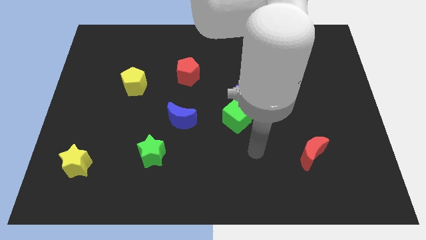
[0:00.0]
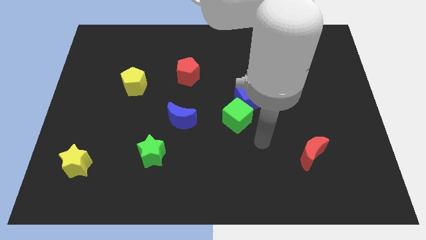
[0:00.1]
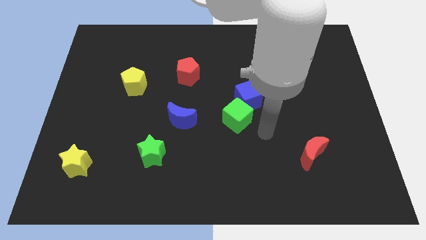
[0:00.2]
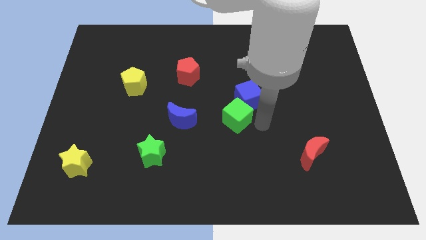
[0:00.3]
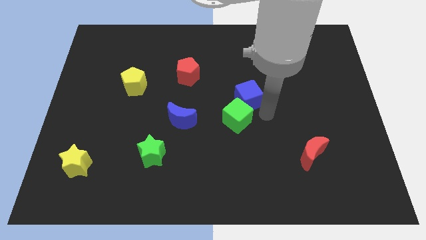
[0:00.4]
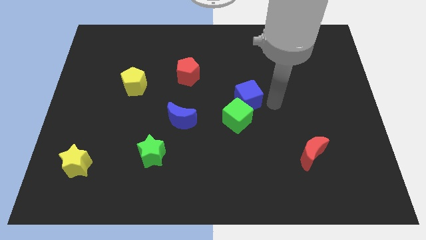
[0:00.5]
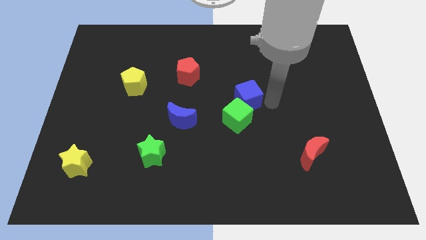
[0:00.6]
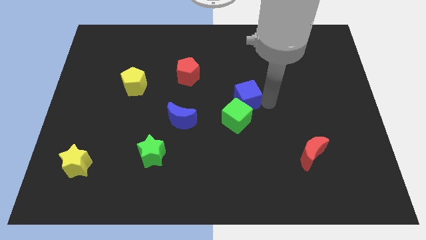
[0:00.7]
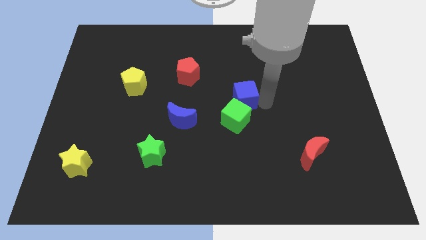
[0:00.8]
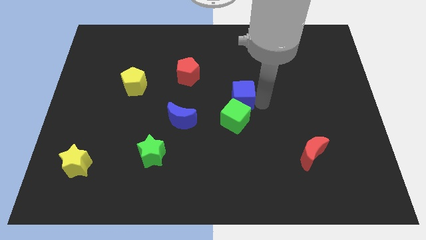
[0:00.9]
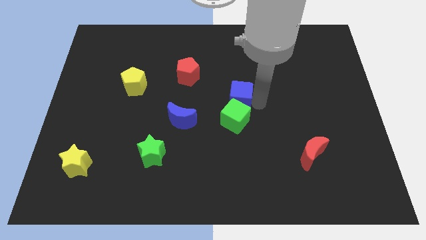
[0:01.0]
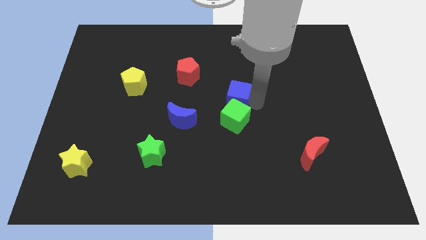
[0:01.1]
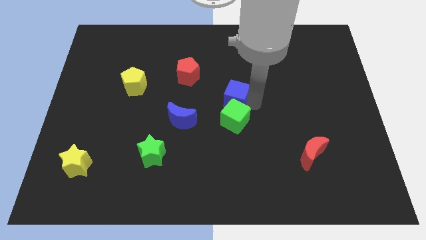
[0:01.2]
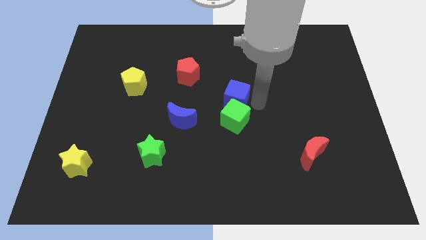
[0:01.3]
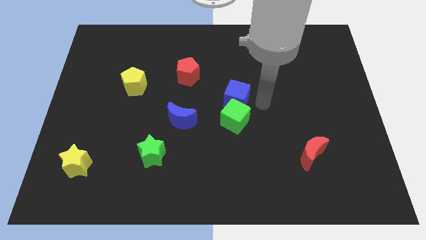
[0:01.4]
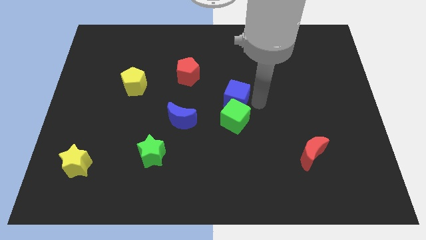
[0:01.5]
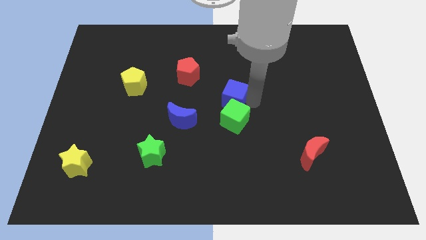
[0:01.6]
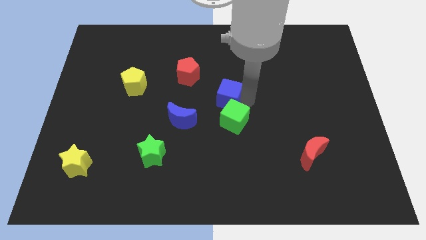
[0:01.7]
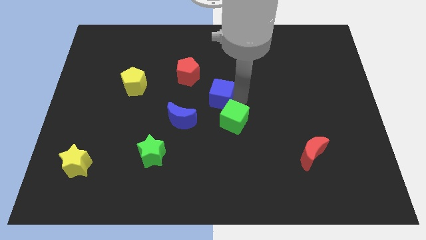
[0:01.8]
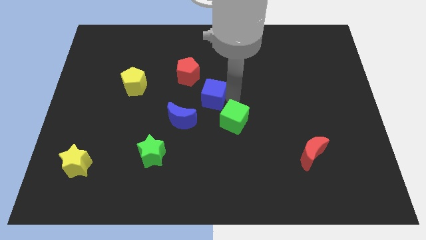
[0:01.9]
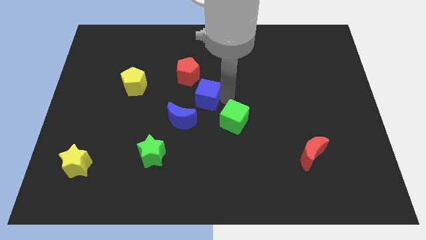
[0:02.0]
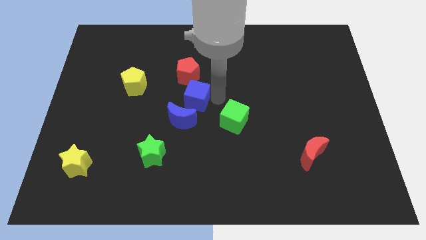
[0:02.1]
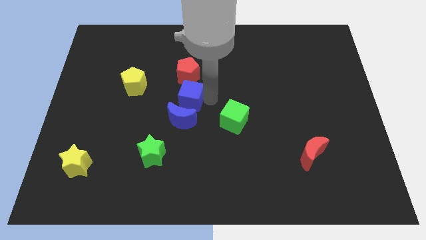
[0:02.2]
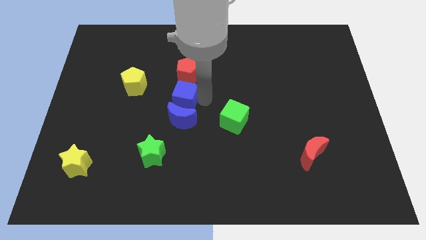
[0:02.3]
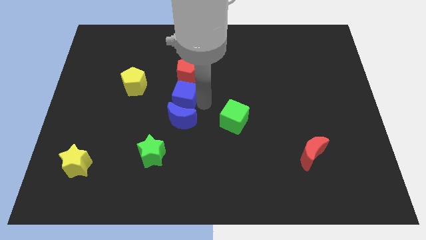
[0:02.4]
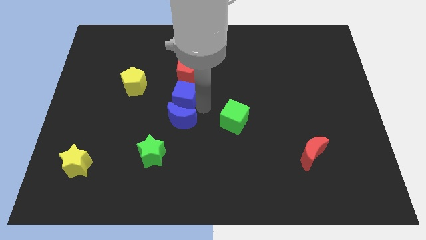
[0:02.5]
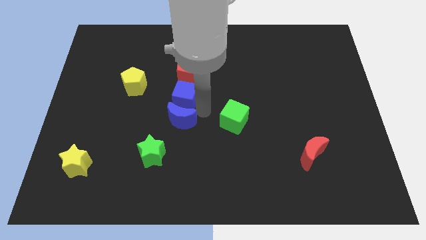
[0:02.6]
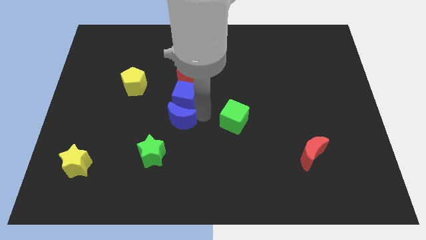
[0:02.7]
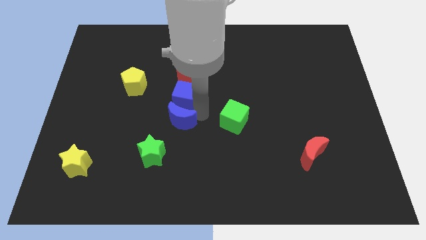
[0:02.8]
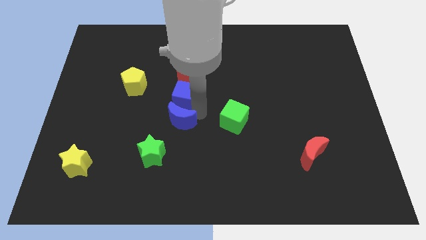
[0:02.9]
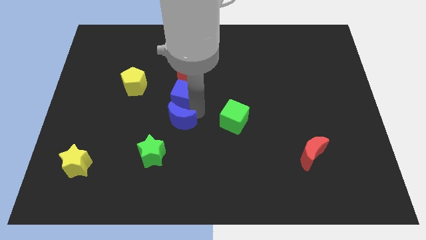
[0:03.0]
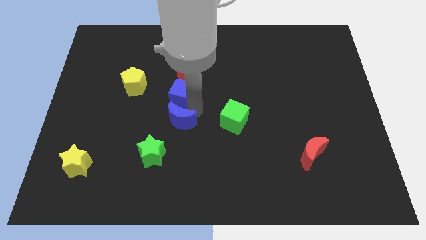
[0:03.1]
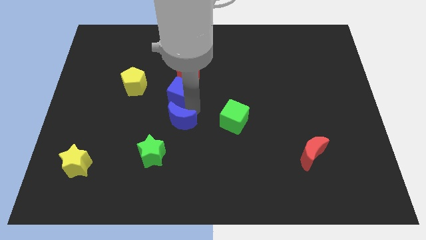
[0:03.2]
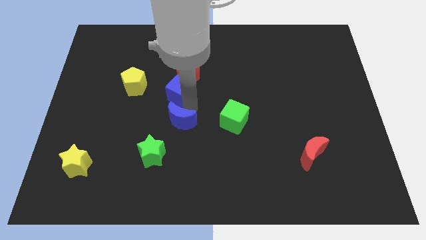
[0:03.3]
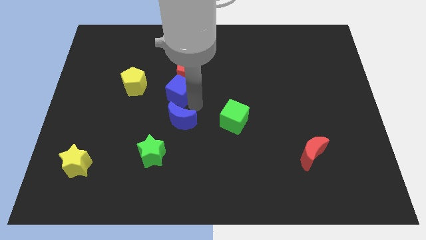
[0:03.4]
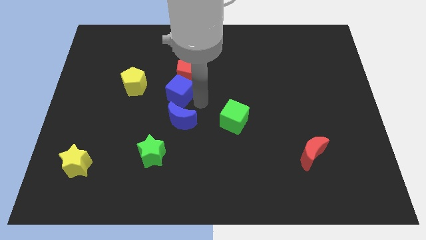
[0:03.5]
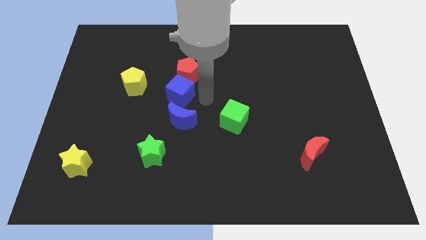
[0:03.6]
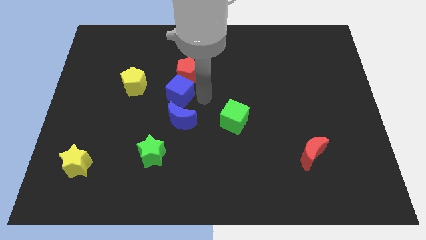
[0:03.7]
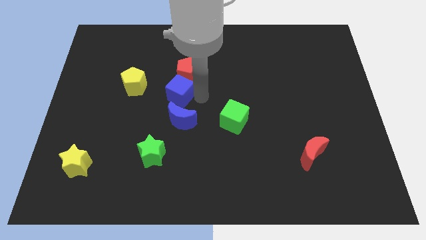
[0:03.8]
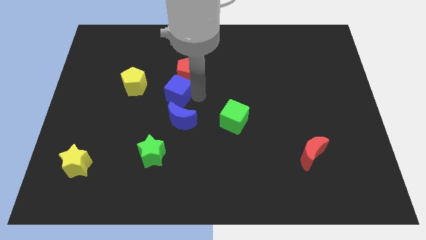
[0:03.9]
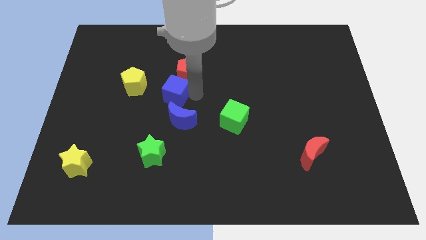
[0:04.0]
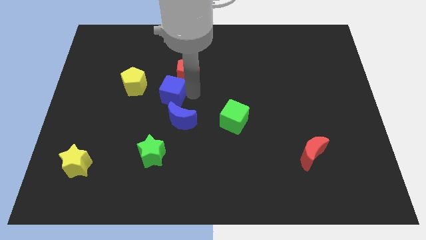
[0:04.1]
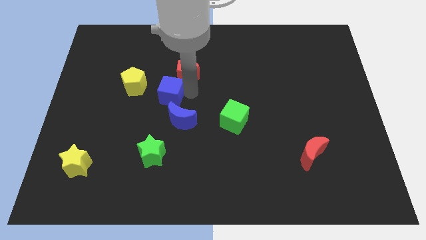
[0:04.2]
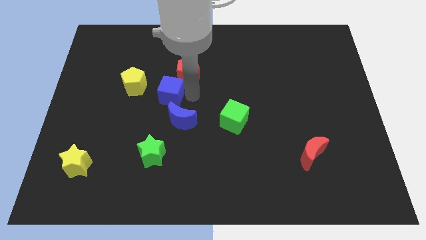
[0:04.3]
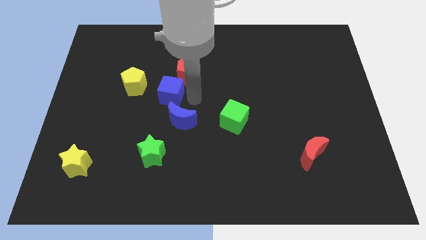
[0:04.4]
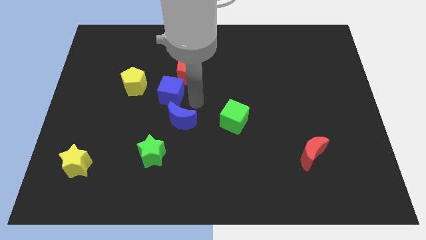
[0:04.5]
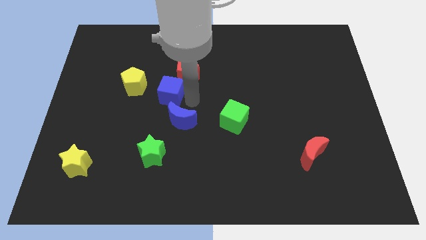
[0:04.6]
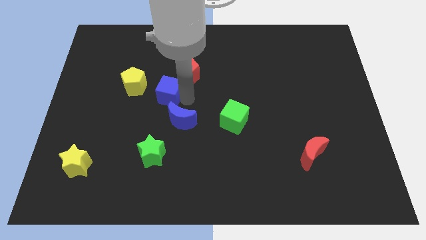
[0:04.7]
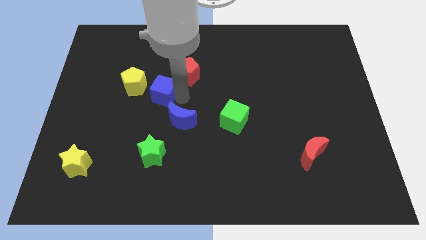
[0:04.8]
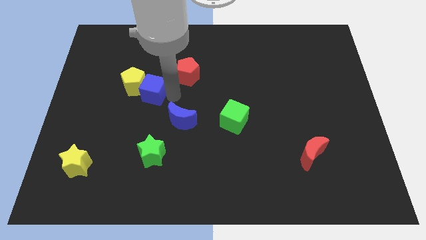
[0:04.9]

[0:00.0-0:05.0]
push the blue cube towards the yellow pentagon

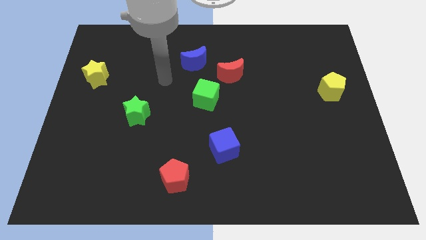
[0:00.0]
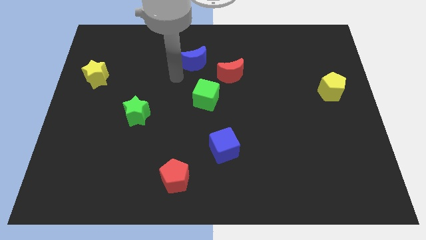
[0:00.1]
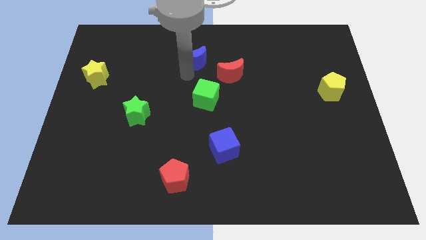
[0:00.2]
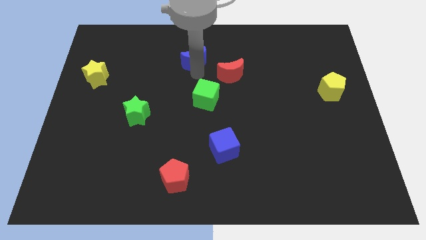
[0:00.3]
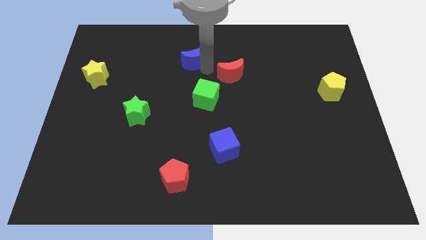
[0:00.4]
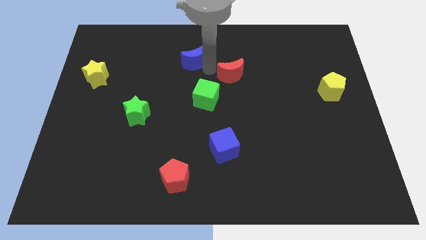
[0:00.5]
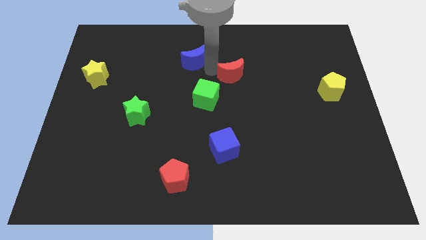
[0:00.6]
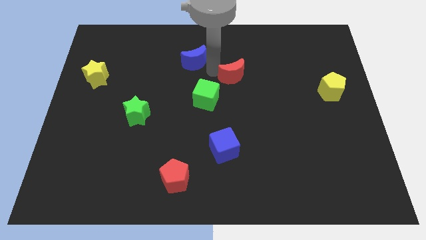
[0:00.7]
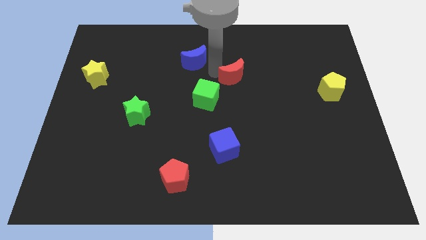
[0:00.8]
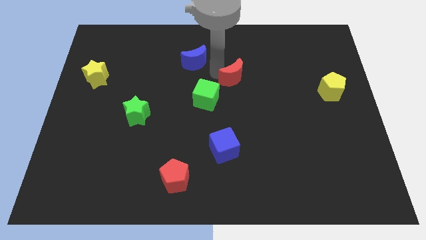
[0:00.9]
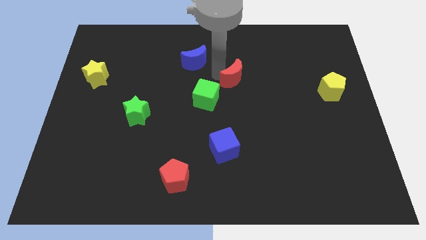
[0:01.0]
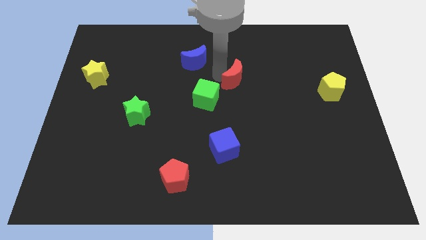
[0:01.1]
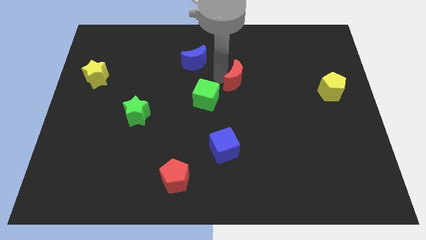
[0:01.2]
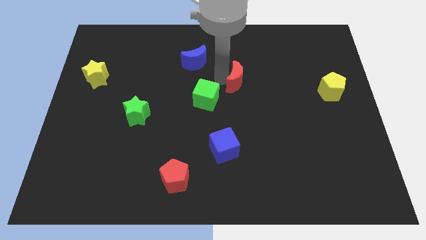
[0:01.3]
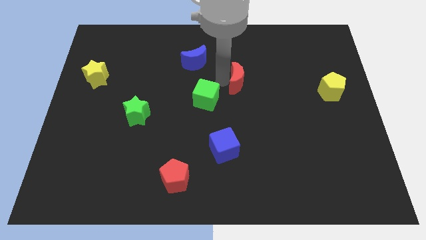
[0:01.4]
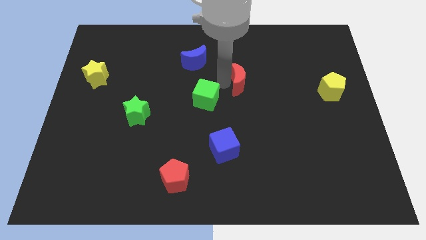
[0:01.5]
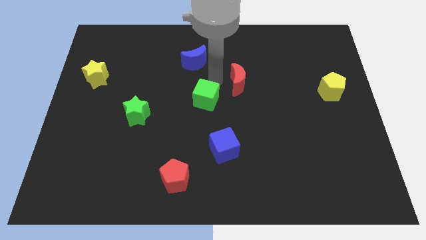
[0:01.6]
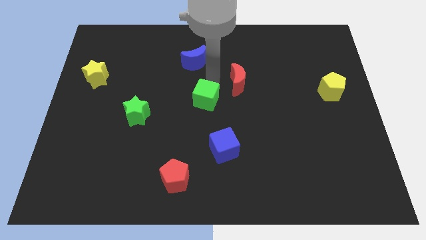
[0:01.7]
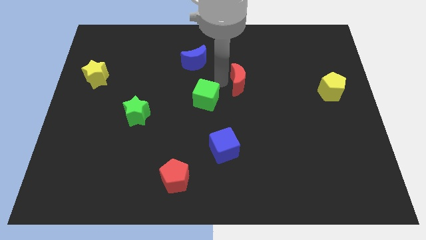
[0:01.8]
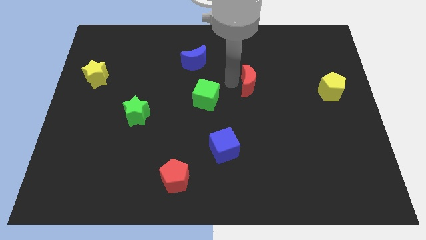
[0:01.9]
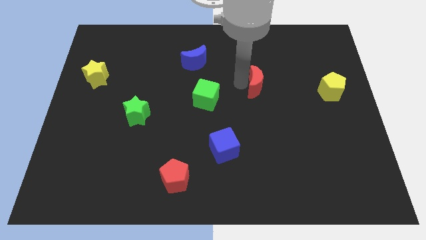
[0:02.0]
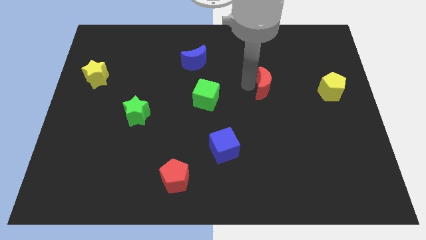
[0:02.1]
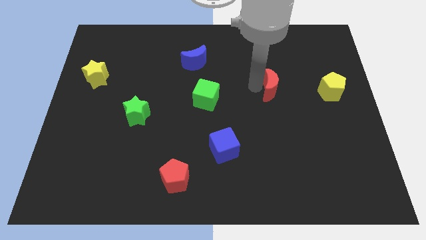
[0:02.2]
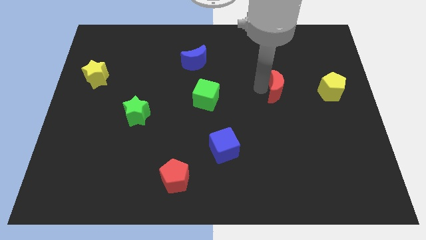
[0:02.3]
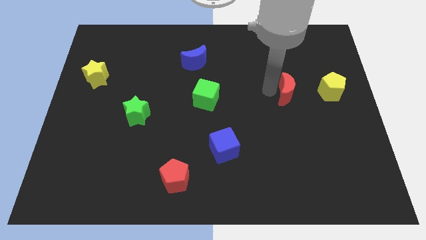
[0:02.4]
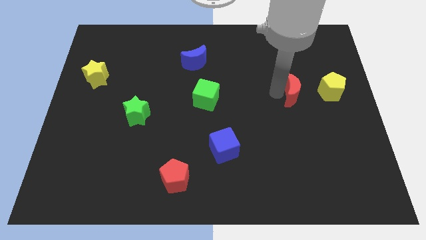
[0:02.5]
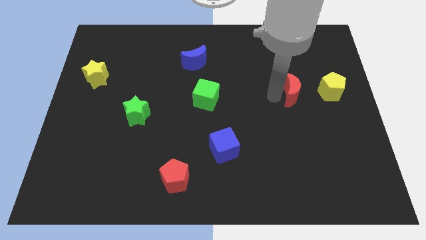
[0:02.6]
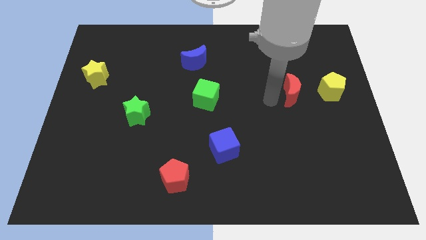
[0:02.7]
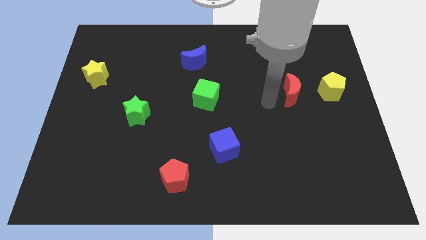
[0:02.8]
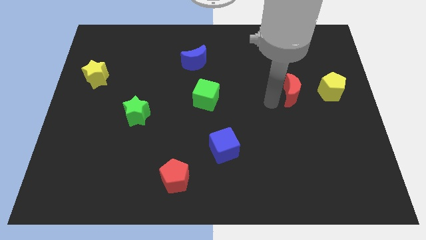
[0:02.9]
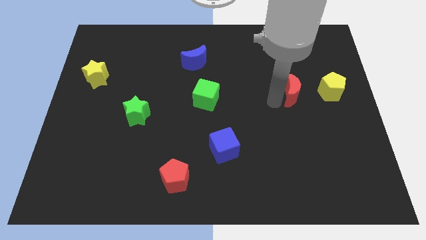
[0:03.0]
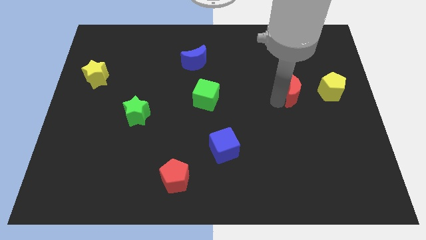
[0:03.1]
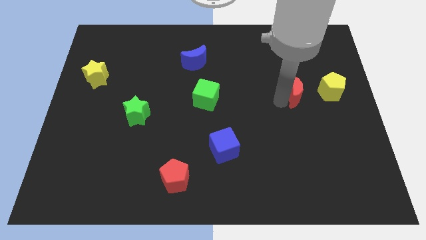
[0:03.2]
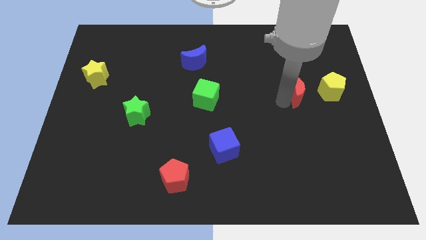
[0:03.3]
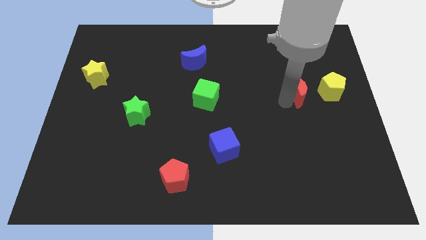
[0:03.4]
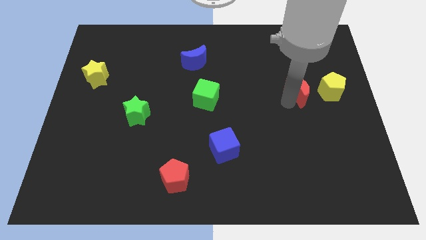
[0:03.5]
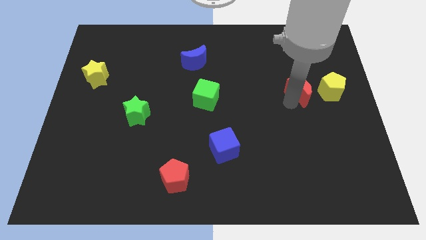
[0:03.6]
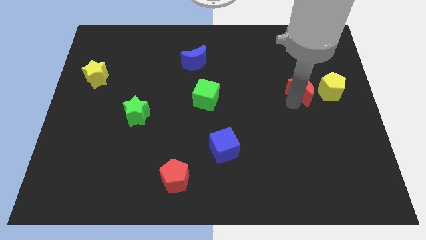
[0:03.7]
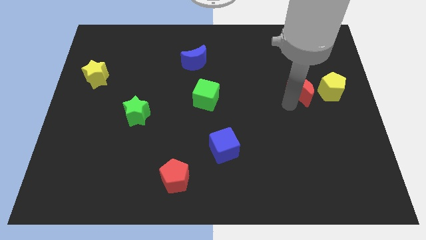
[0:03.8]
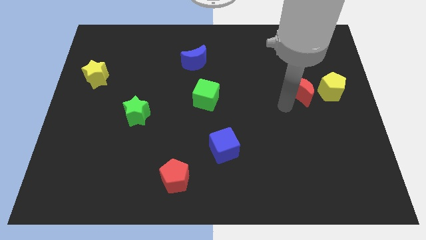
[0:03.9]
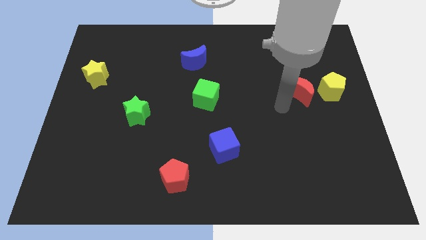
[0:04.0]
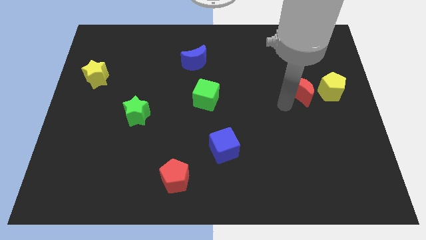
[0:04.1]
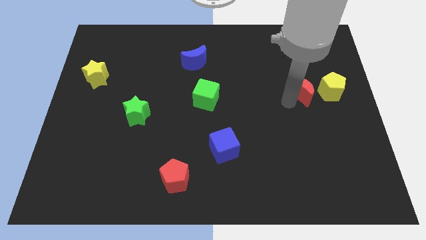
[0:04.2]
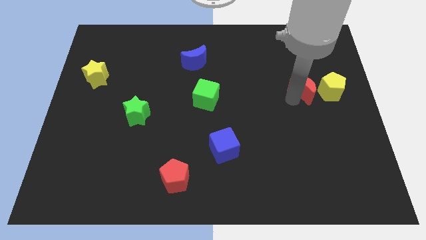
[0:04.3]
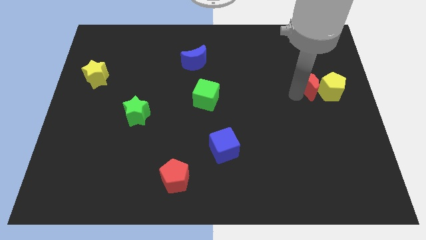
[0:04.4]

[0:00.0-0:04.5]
put the red moon close to the yellow pentagon
